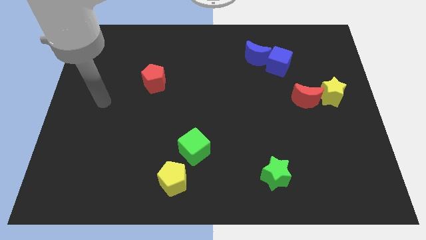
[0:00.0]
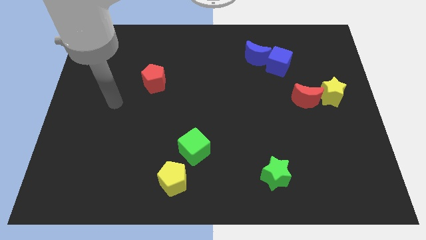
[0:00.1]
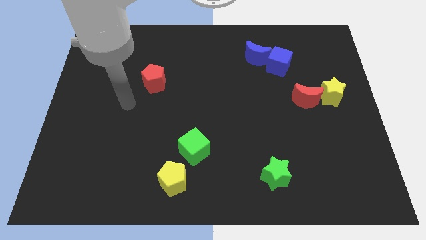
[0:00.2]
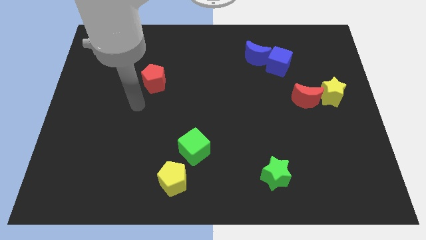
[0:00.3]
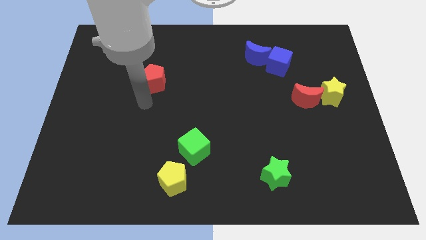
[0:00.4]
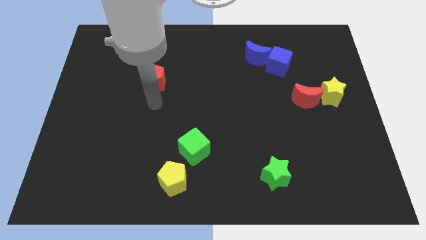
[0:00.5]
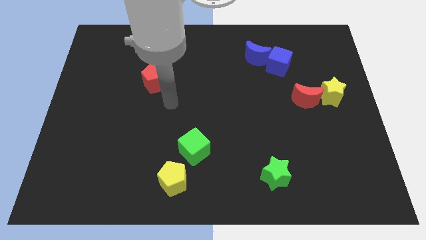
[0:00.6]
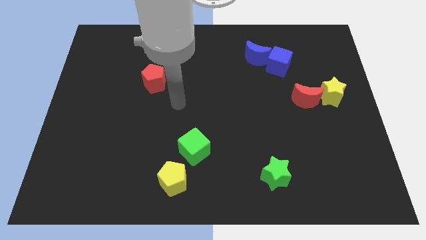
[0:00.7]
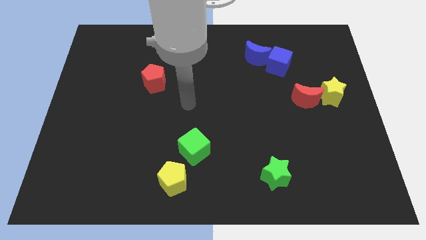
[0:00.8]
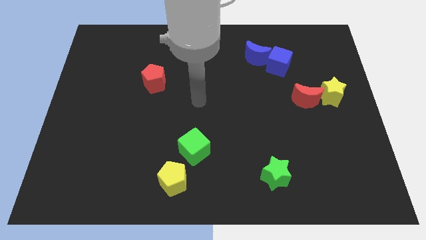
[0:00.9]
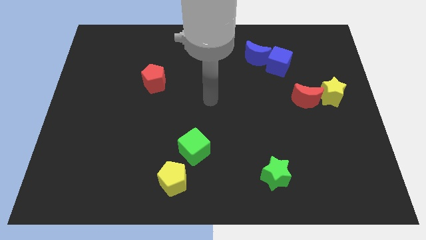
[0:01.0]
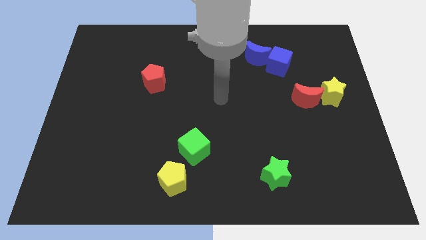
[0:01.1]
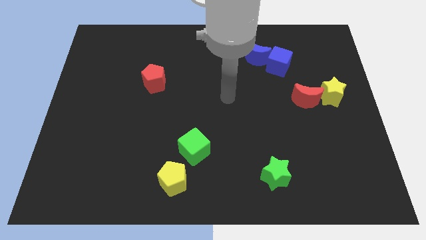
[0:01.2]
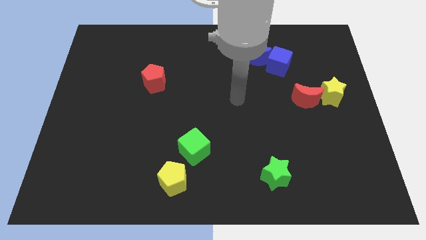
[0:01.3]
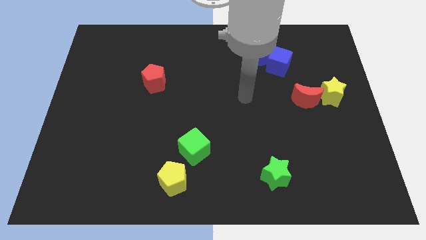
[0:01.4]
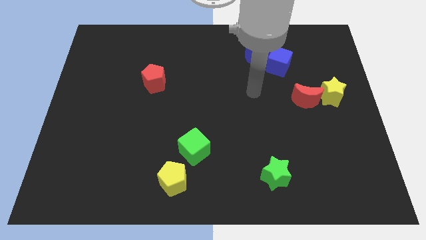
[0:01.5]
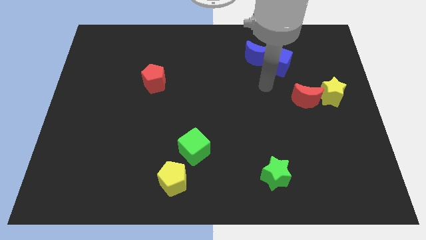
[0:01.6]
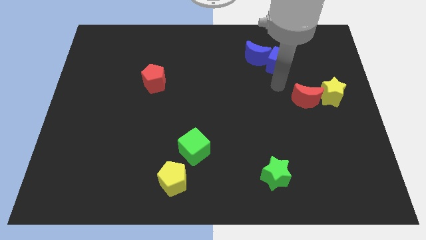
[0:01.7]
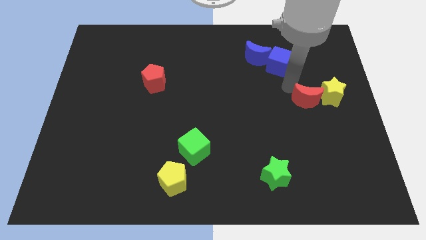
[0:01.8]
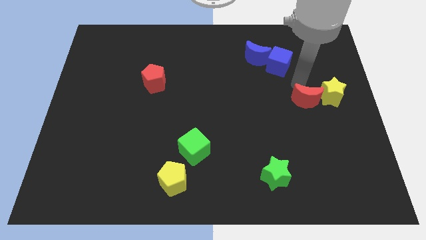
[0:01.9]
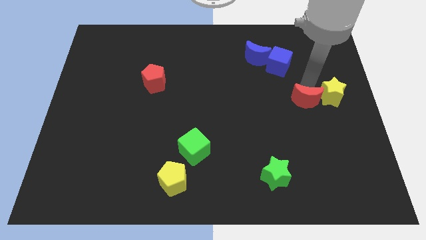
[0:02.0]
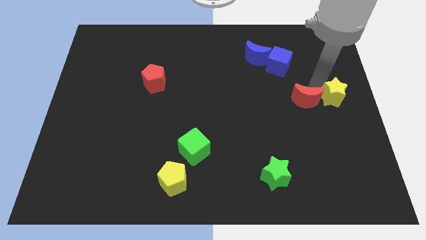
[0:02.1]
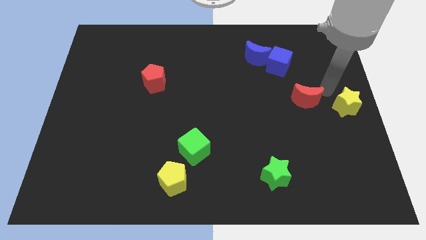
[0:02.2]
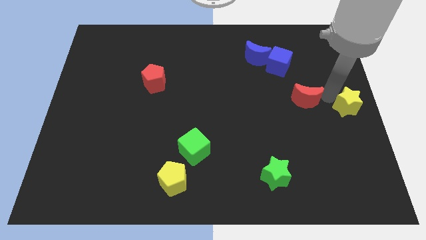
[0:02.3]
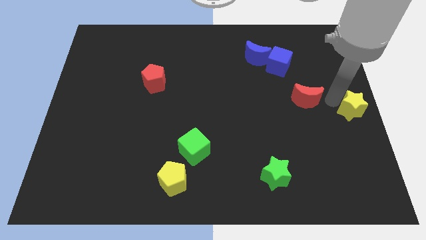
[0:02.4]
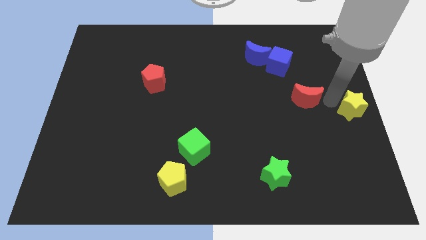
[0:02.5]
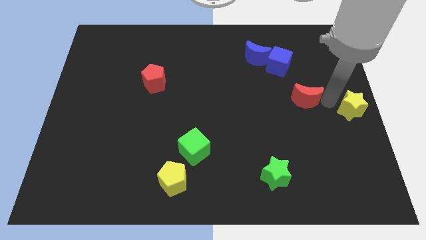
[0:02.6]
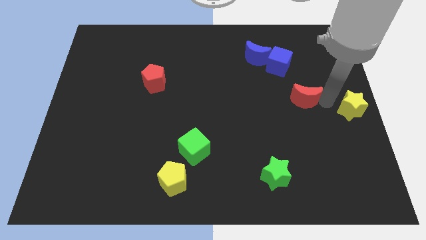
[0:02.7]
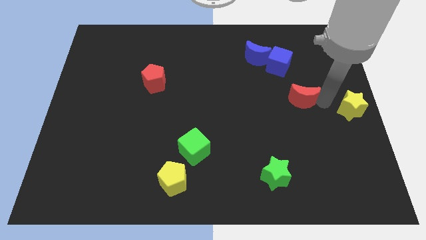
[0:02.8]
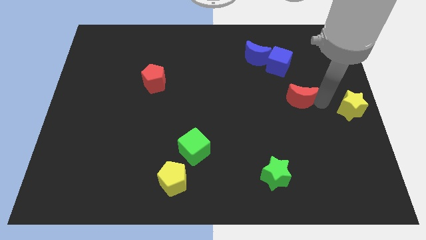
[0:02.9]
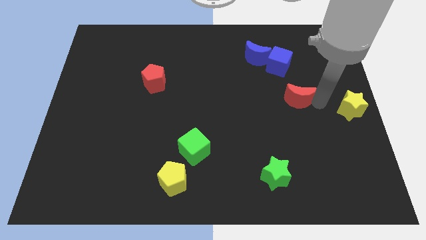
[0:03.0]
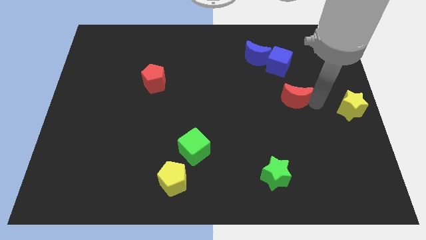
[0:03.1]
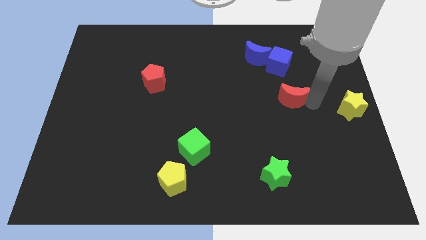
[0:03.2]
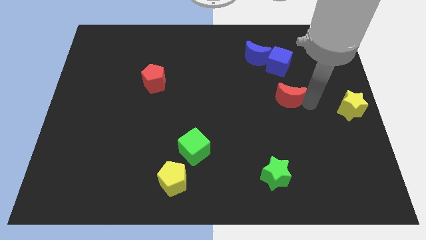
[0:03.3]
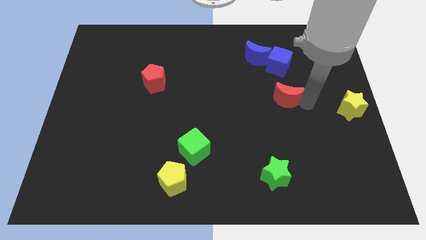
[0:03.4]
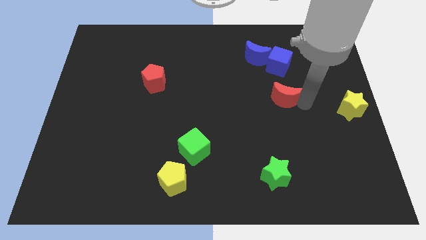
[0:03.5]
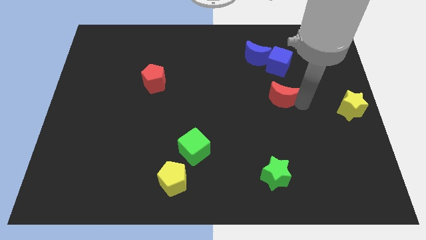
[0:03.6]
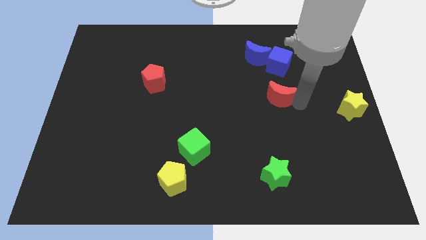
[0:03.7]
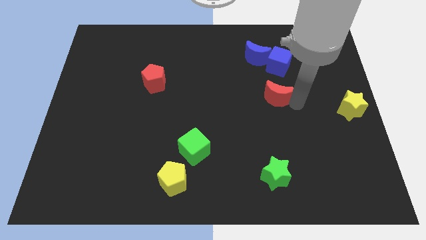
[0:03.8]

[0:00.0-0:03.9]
slightly move the red moon to the left

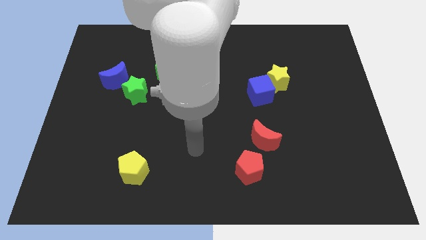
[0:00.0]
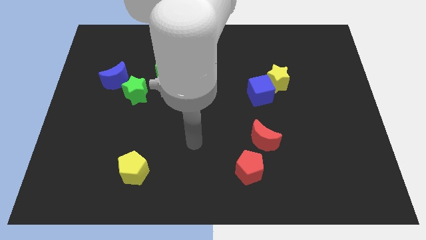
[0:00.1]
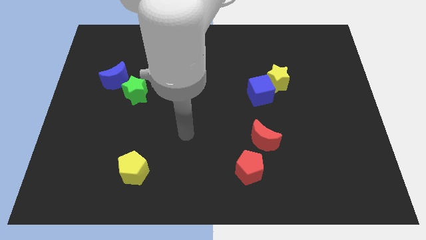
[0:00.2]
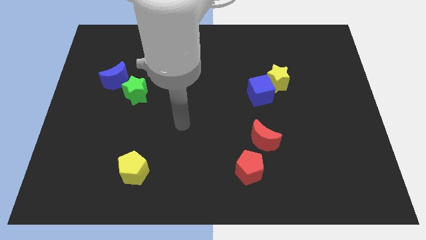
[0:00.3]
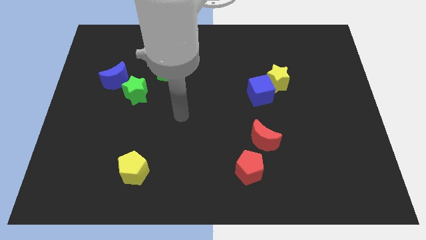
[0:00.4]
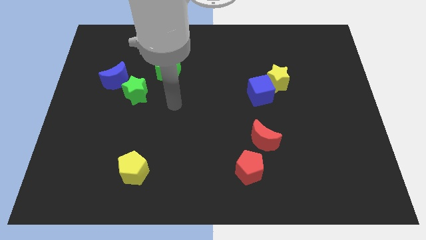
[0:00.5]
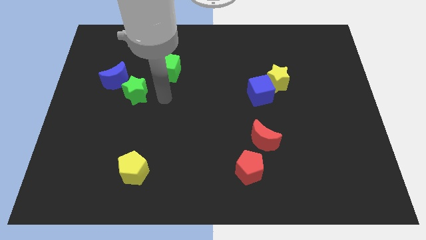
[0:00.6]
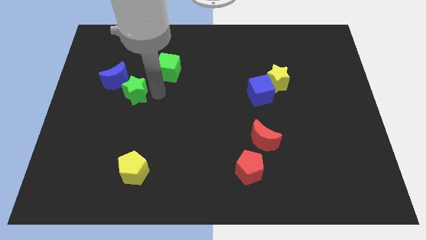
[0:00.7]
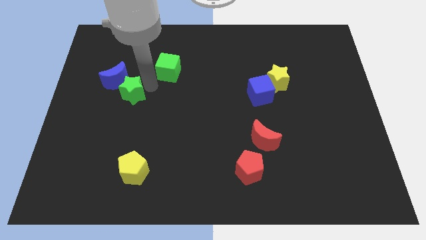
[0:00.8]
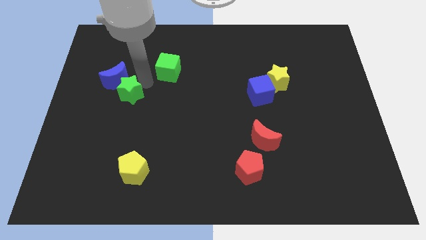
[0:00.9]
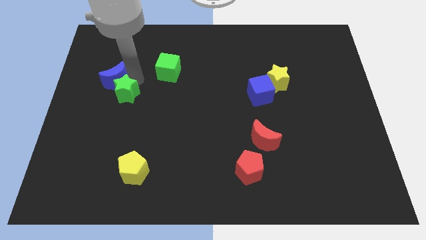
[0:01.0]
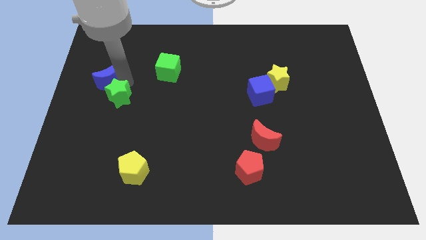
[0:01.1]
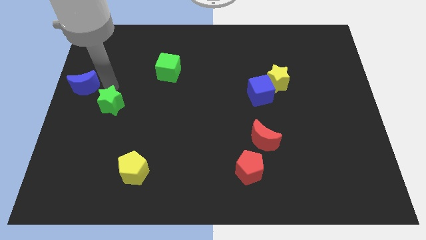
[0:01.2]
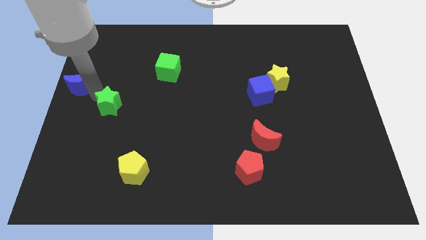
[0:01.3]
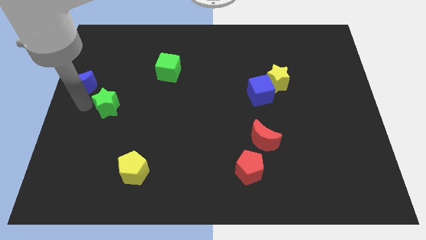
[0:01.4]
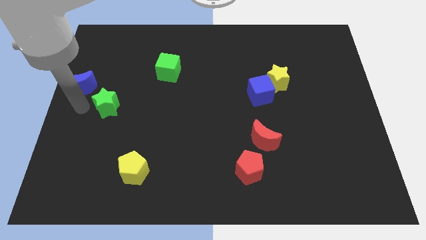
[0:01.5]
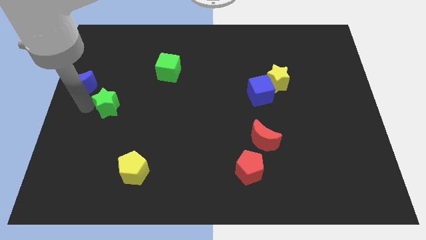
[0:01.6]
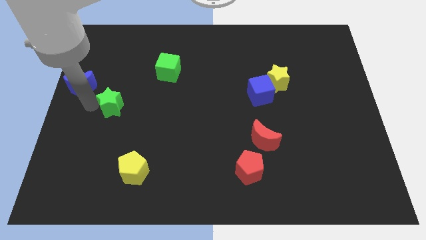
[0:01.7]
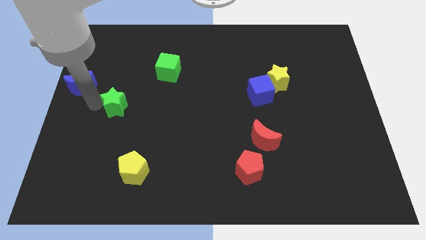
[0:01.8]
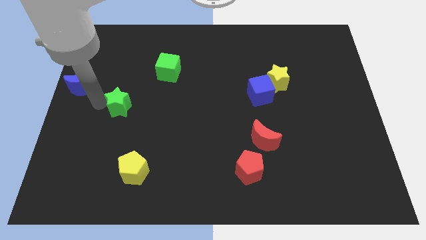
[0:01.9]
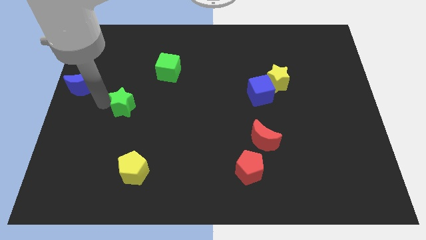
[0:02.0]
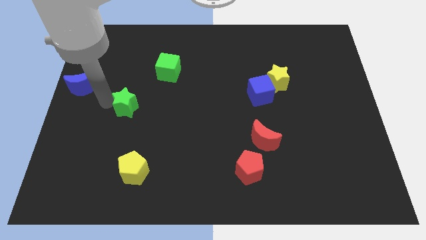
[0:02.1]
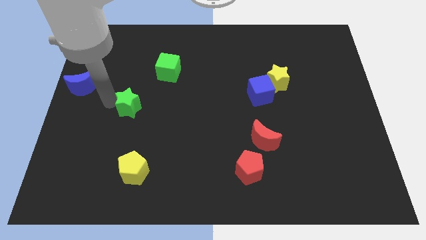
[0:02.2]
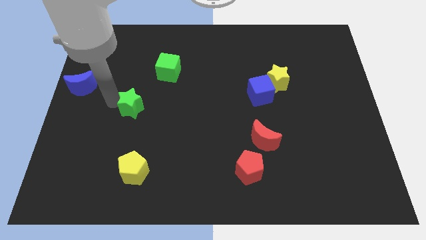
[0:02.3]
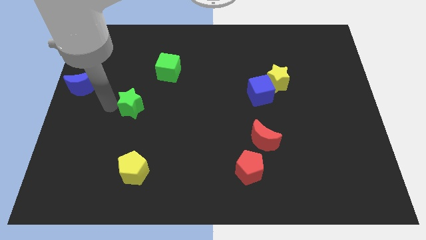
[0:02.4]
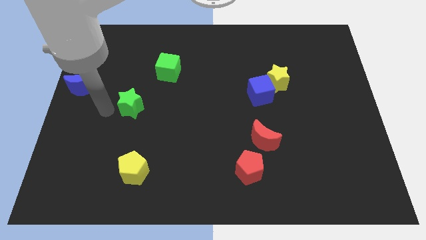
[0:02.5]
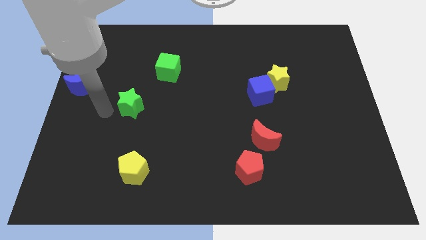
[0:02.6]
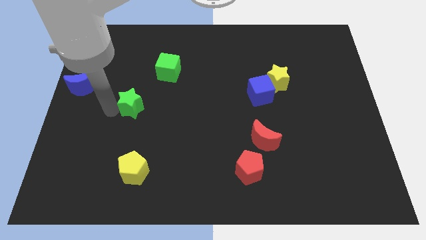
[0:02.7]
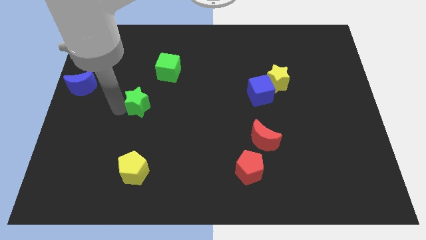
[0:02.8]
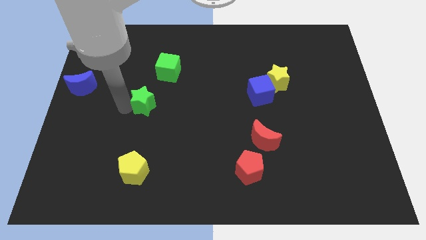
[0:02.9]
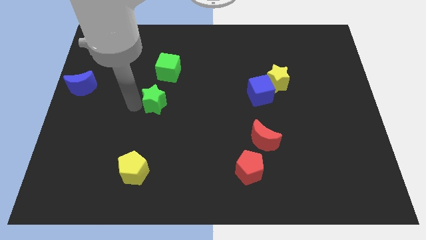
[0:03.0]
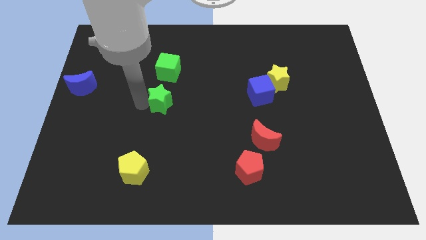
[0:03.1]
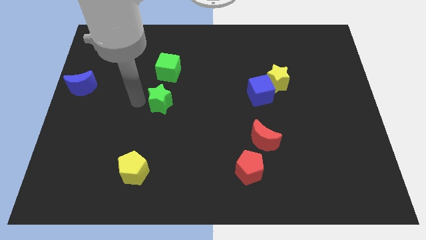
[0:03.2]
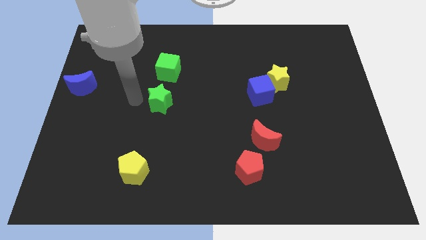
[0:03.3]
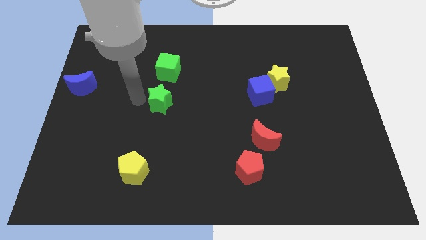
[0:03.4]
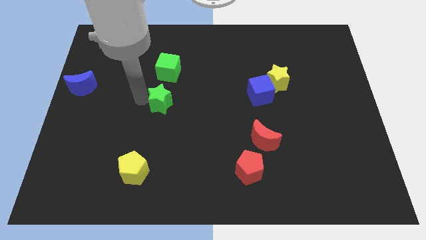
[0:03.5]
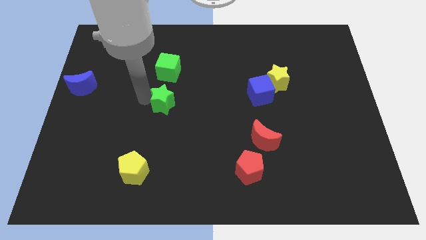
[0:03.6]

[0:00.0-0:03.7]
move the green star right a bit

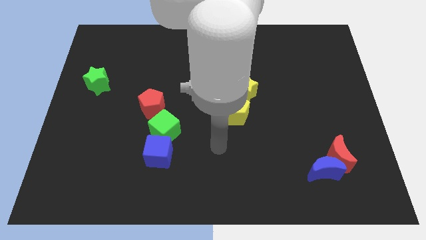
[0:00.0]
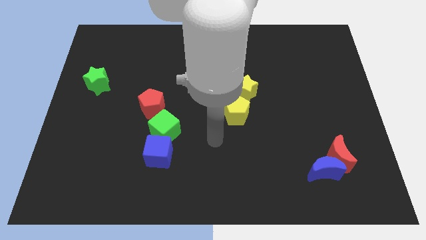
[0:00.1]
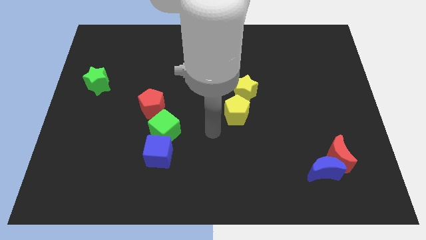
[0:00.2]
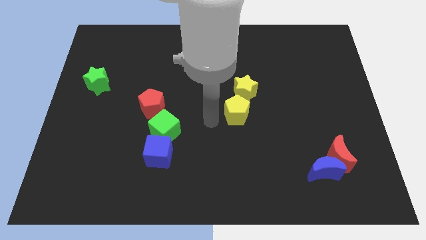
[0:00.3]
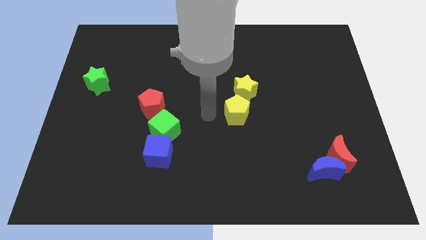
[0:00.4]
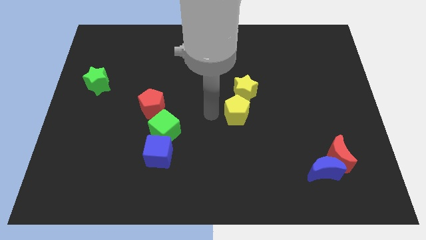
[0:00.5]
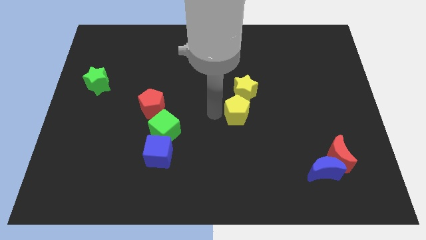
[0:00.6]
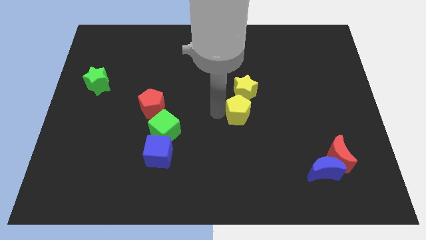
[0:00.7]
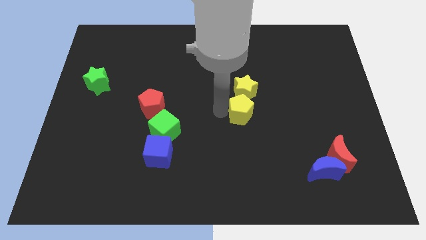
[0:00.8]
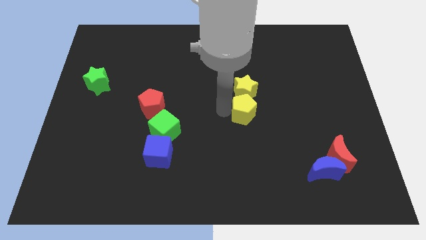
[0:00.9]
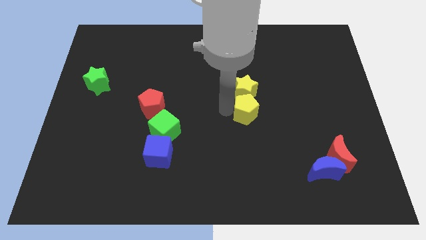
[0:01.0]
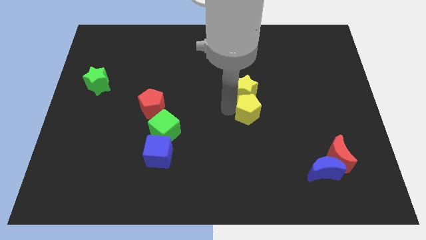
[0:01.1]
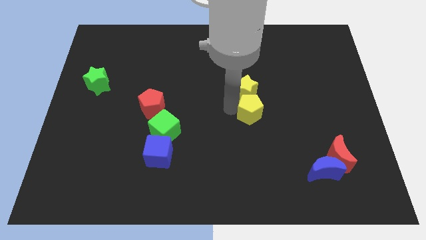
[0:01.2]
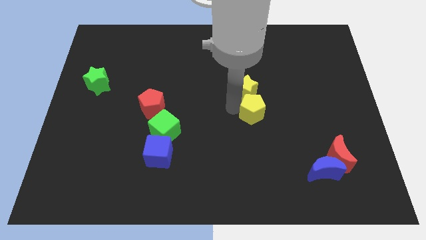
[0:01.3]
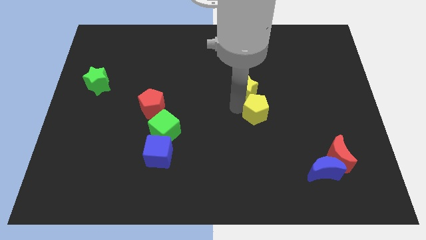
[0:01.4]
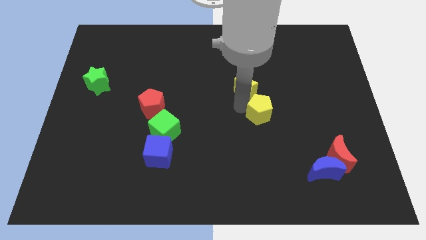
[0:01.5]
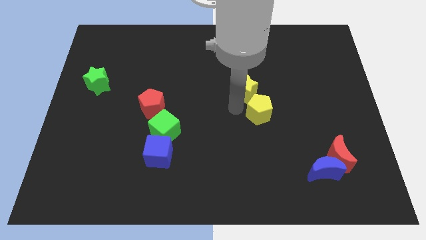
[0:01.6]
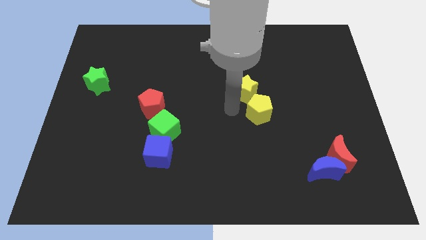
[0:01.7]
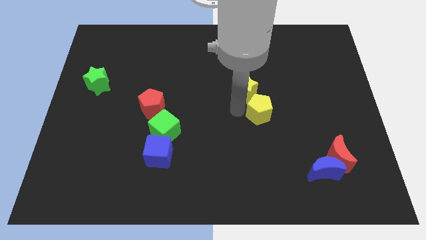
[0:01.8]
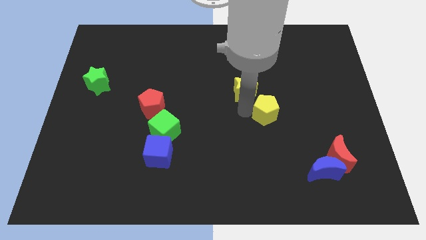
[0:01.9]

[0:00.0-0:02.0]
push the yellow pentagon right somewhat
